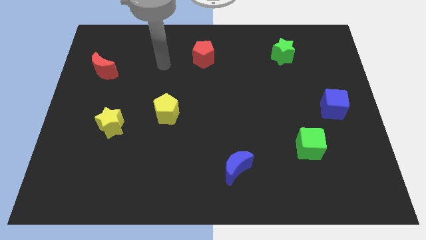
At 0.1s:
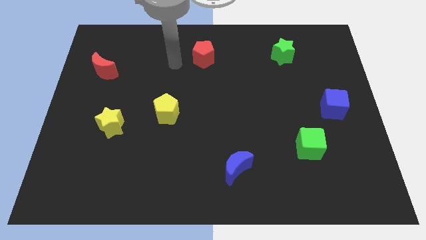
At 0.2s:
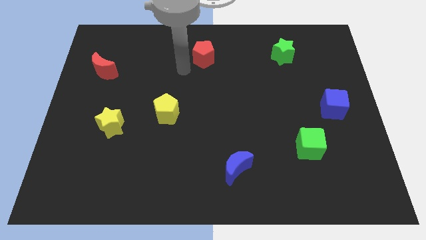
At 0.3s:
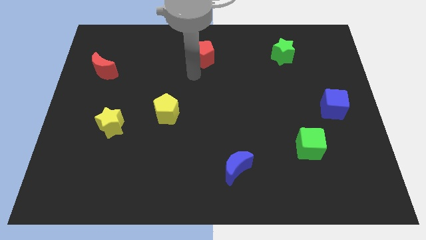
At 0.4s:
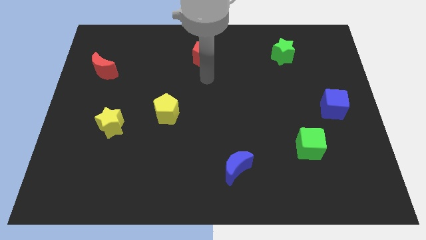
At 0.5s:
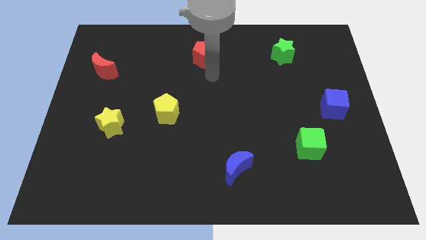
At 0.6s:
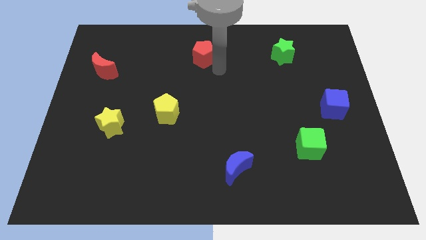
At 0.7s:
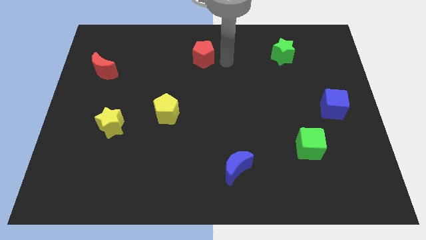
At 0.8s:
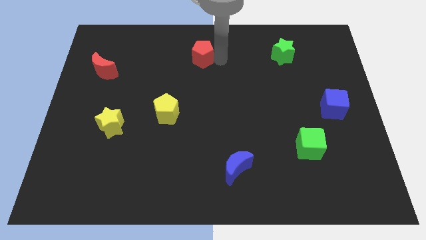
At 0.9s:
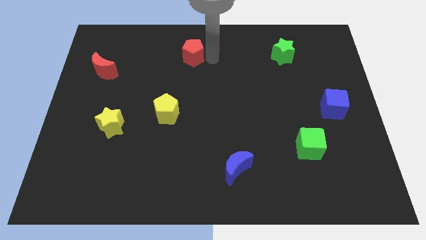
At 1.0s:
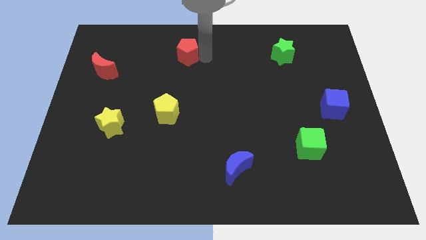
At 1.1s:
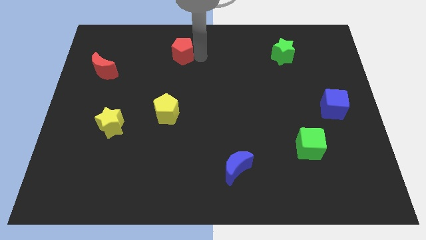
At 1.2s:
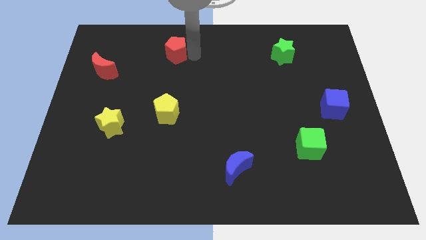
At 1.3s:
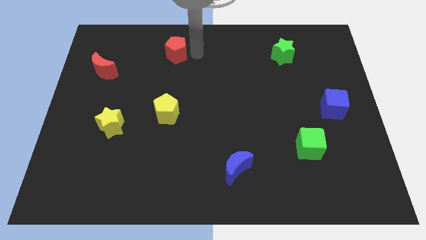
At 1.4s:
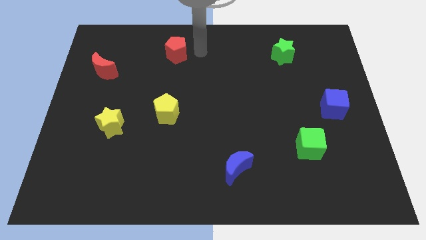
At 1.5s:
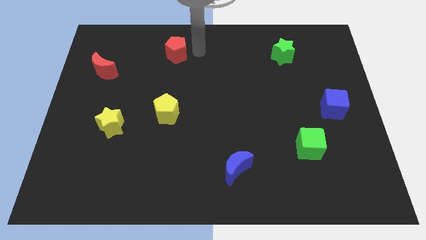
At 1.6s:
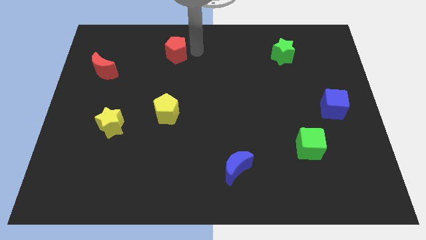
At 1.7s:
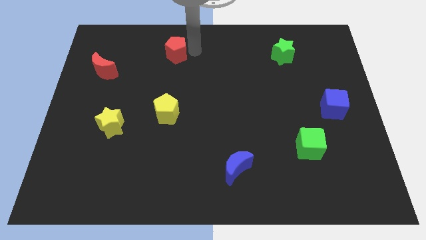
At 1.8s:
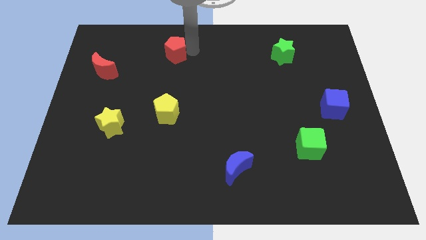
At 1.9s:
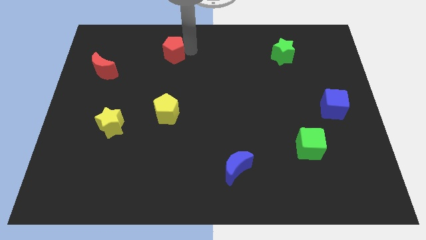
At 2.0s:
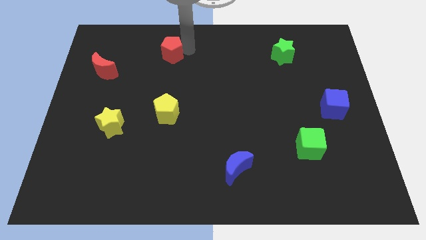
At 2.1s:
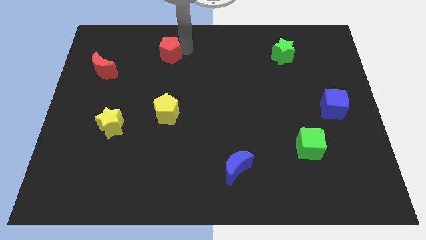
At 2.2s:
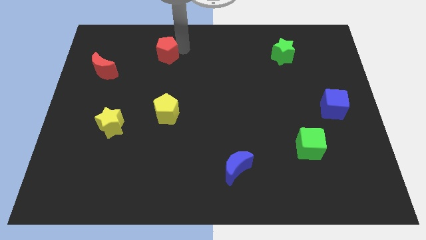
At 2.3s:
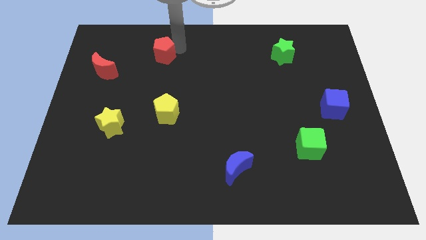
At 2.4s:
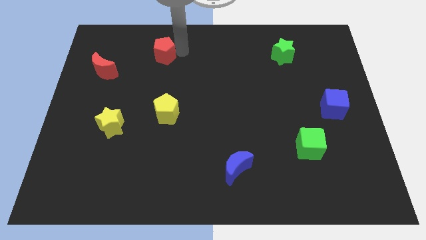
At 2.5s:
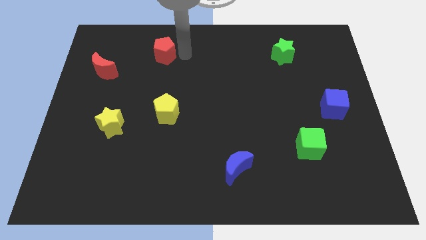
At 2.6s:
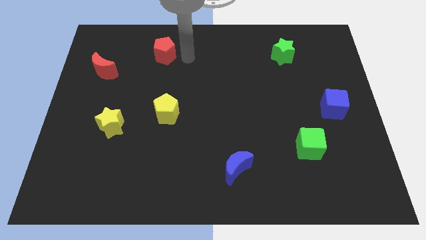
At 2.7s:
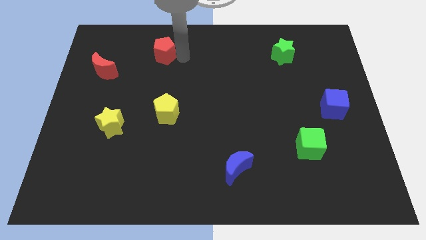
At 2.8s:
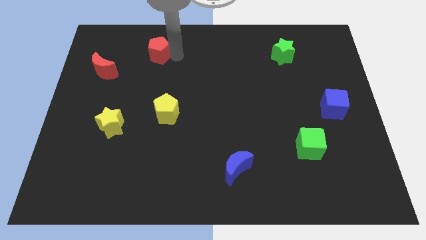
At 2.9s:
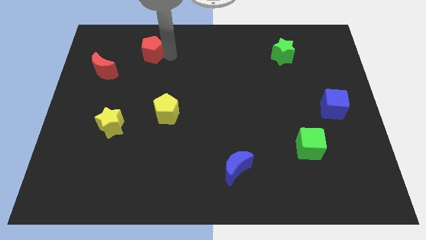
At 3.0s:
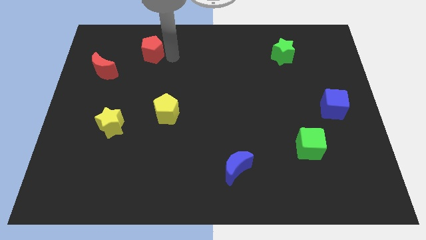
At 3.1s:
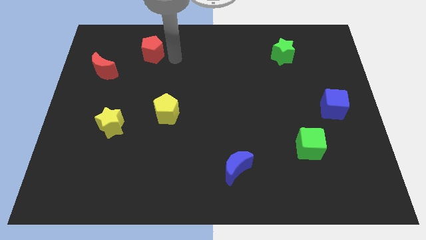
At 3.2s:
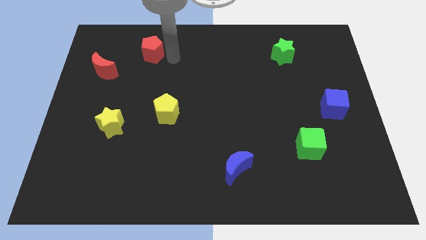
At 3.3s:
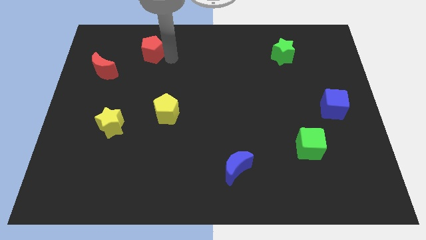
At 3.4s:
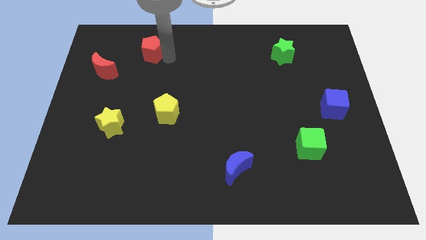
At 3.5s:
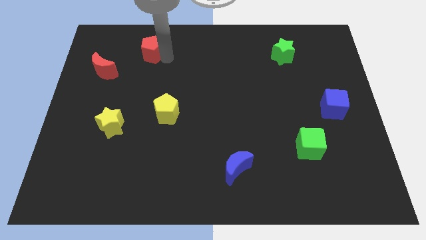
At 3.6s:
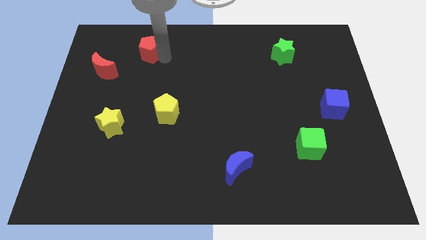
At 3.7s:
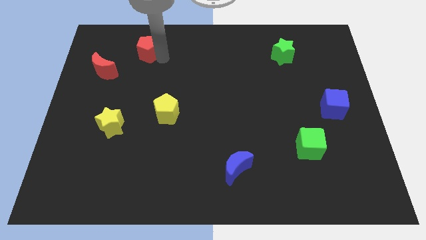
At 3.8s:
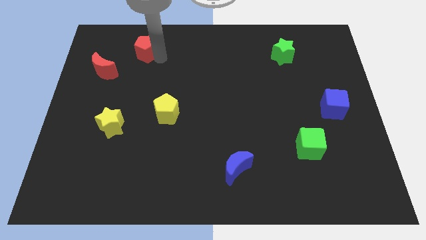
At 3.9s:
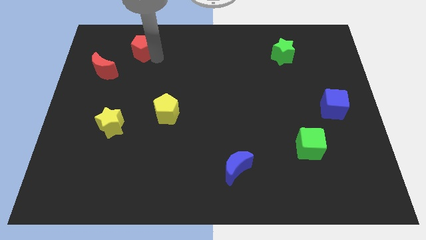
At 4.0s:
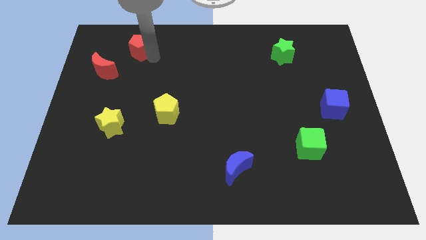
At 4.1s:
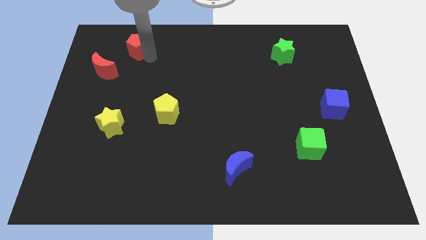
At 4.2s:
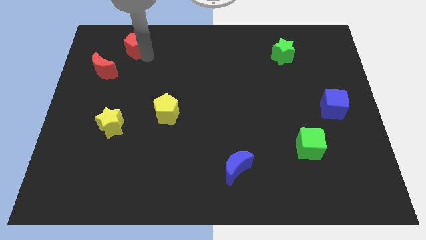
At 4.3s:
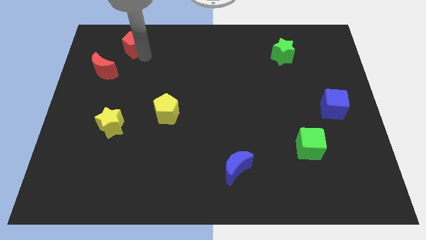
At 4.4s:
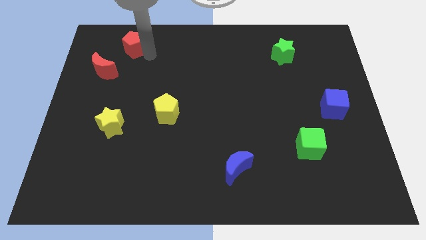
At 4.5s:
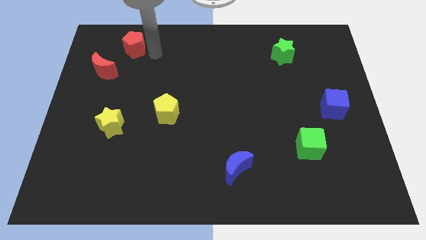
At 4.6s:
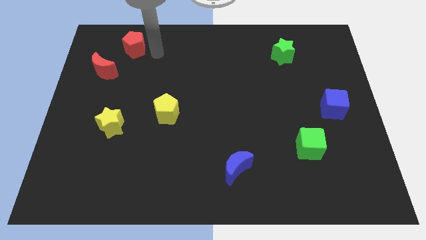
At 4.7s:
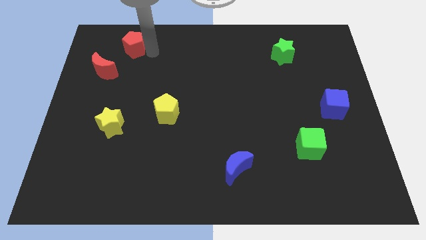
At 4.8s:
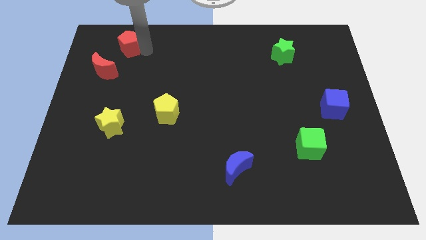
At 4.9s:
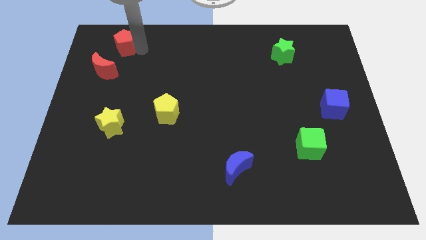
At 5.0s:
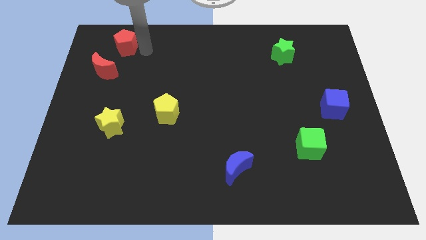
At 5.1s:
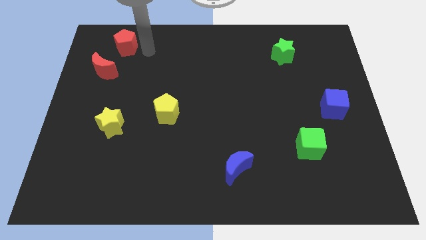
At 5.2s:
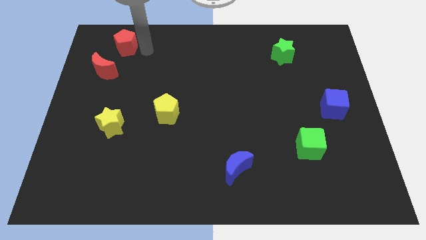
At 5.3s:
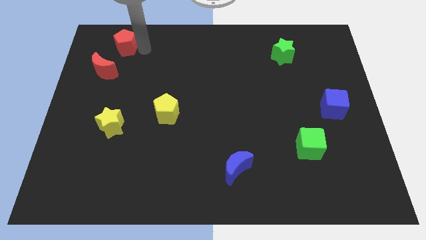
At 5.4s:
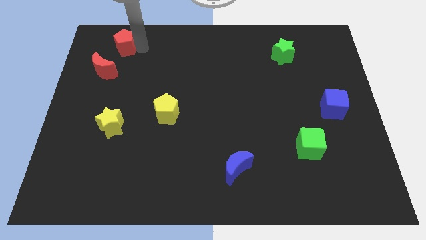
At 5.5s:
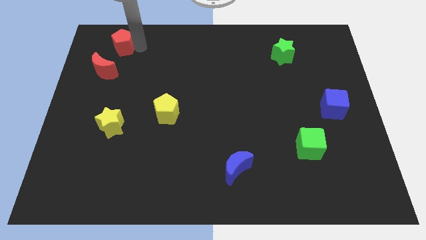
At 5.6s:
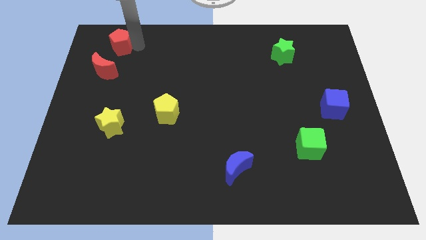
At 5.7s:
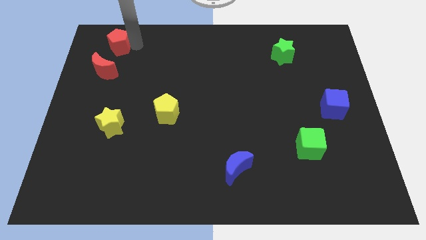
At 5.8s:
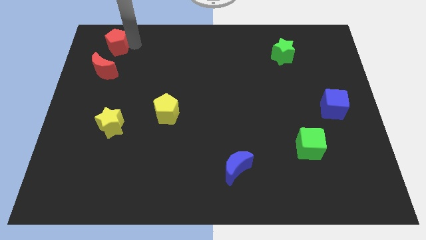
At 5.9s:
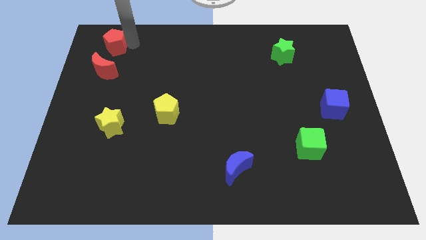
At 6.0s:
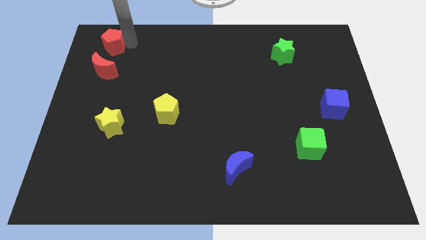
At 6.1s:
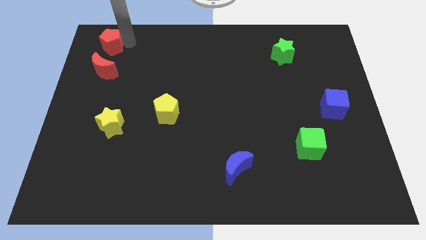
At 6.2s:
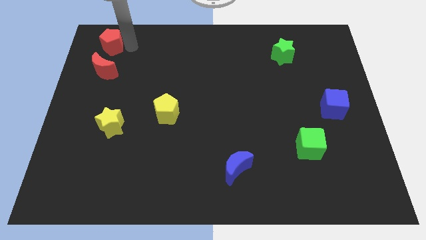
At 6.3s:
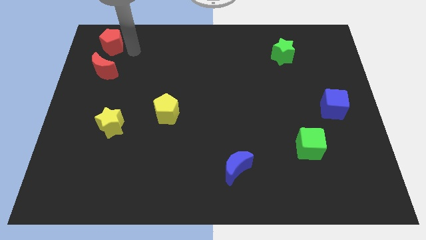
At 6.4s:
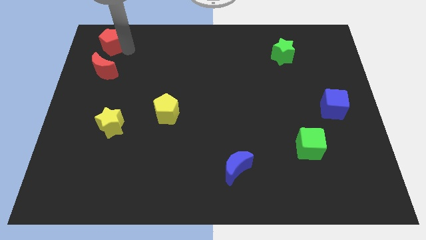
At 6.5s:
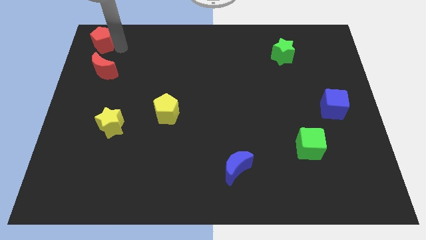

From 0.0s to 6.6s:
move the red pentagon to the top left
